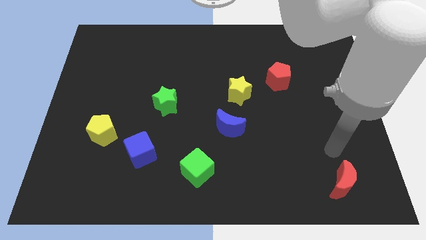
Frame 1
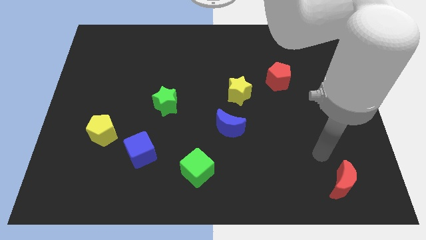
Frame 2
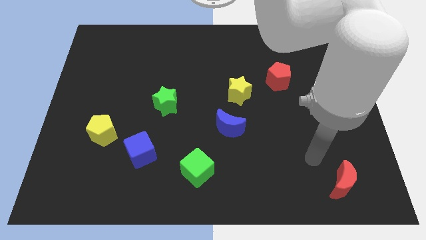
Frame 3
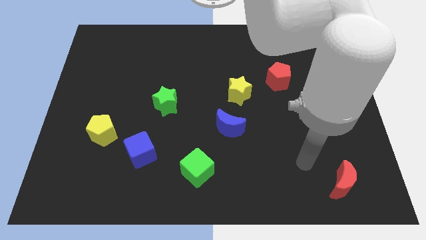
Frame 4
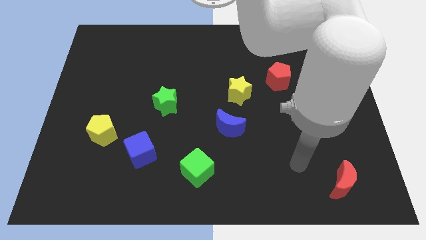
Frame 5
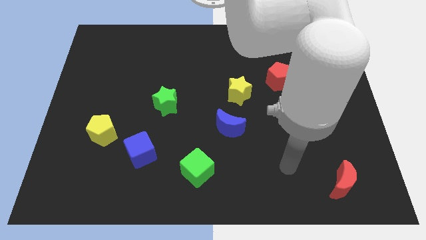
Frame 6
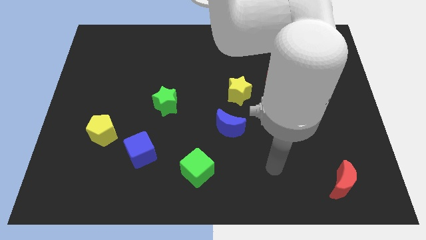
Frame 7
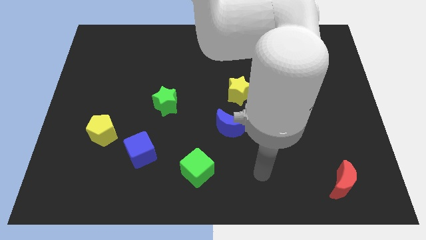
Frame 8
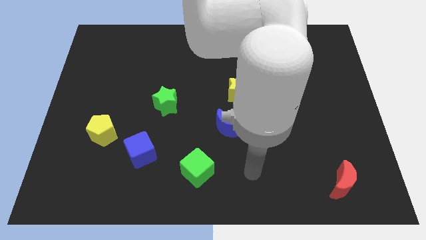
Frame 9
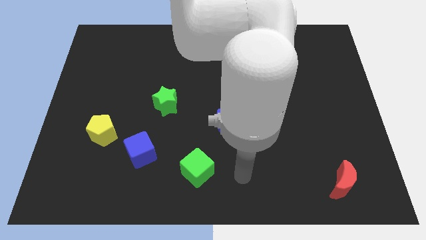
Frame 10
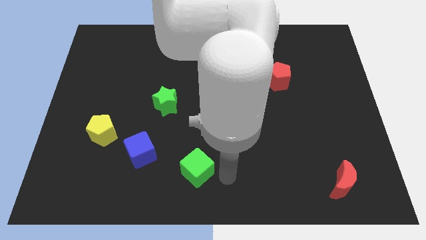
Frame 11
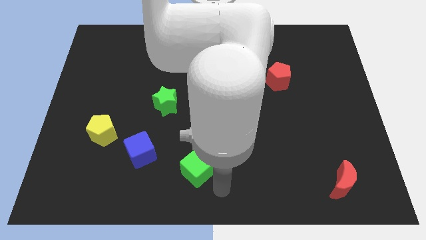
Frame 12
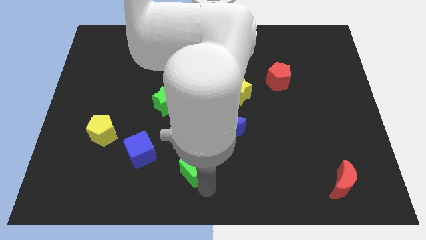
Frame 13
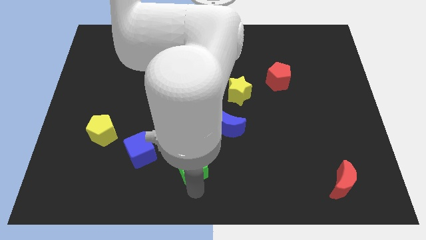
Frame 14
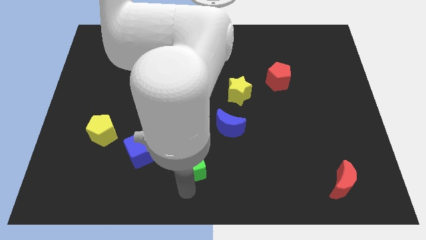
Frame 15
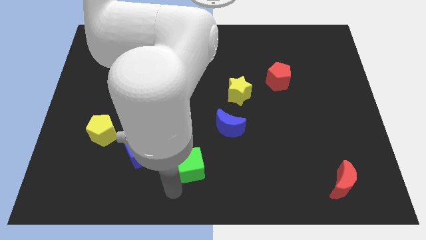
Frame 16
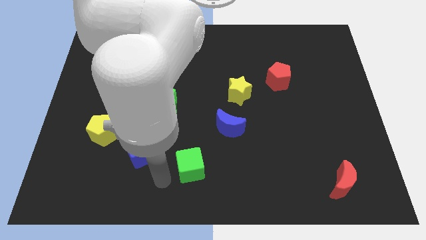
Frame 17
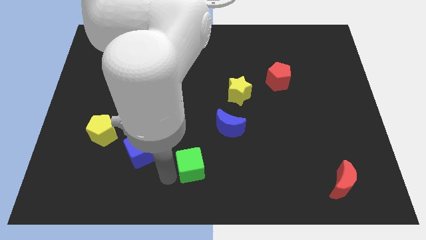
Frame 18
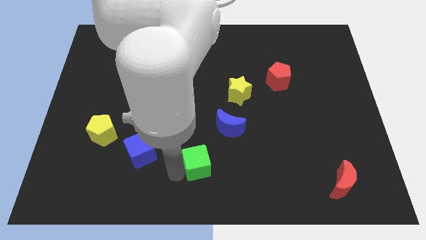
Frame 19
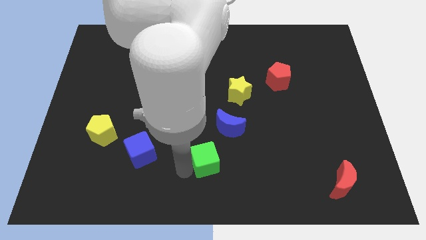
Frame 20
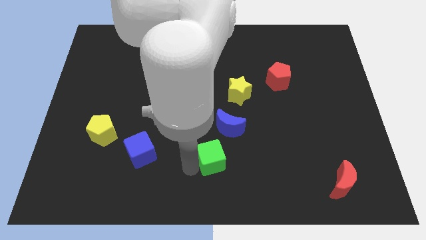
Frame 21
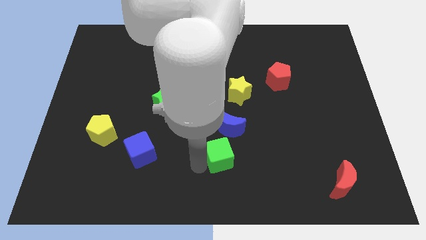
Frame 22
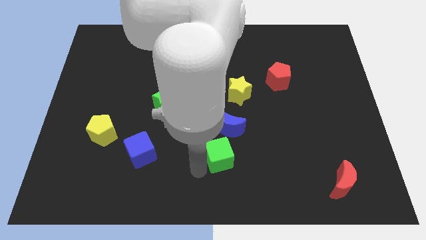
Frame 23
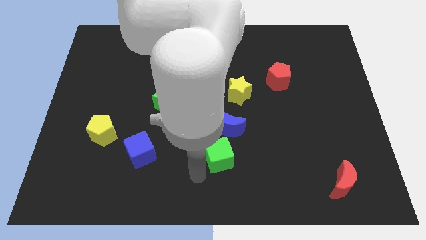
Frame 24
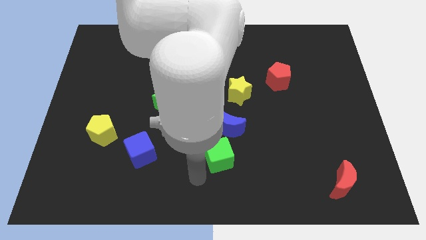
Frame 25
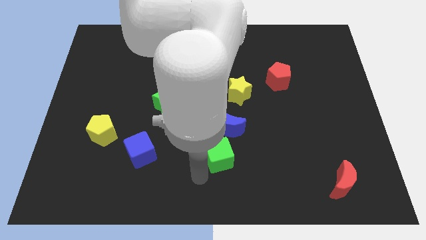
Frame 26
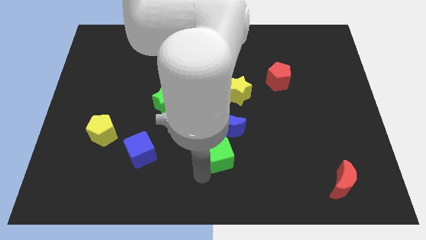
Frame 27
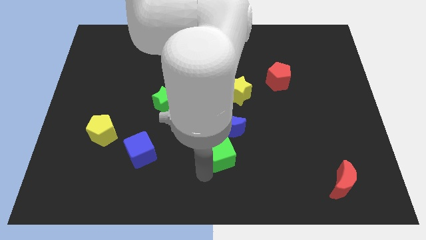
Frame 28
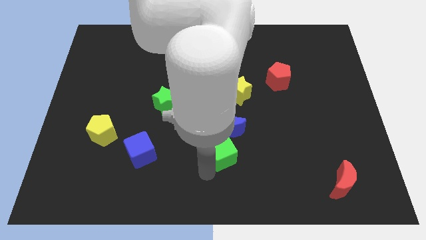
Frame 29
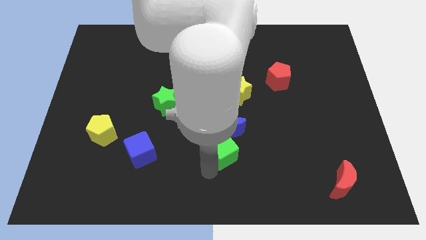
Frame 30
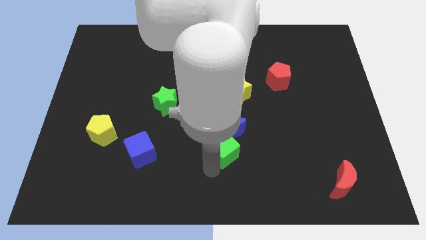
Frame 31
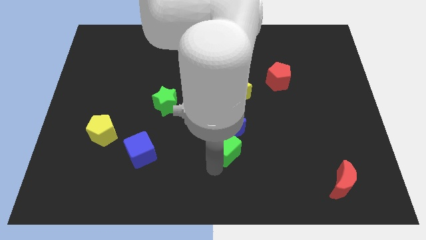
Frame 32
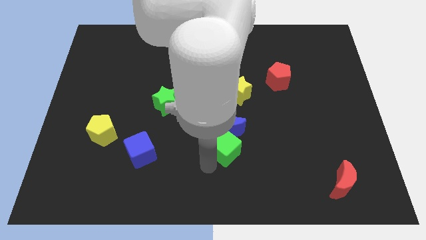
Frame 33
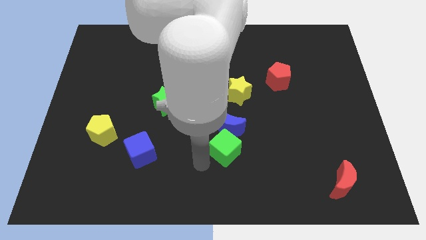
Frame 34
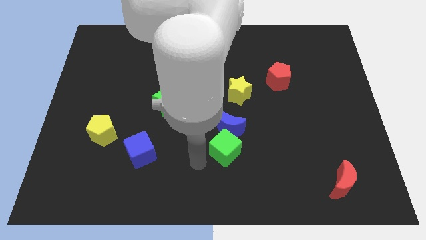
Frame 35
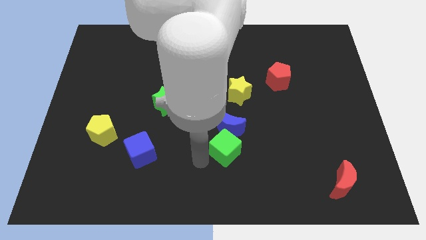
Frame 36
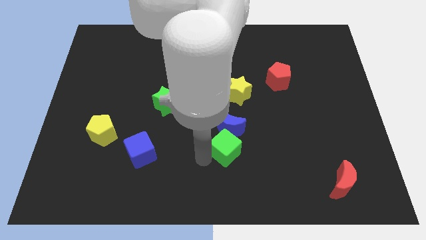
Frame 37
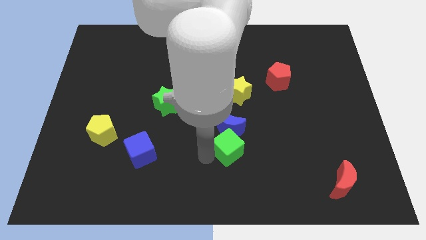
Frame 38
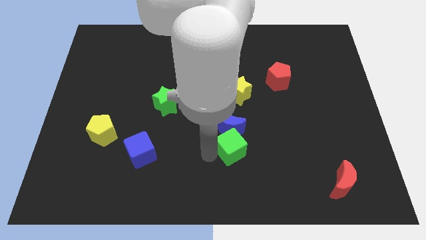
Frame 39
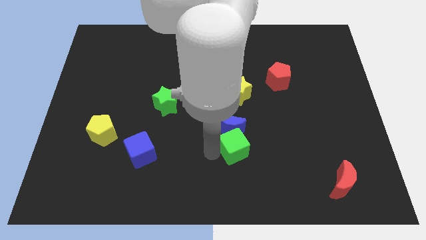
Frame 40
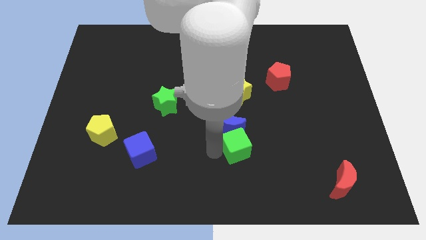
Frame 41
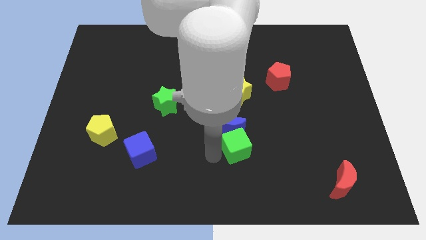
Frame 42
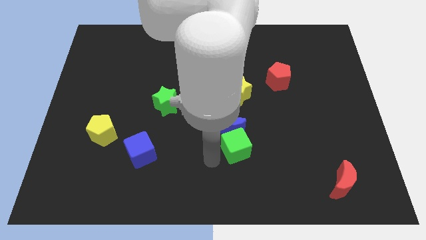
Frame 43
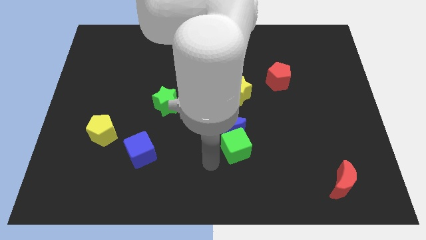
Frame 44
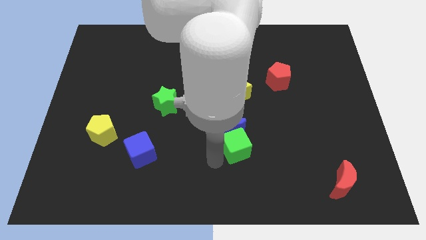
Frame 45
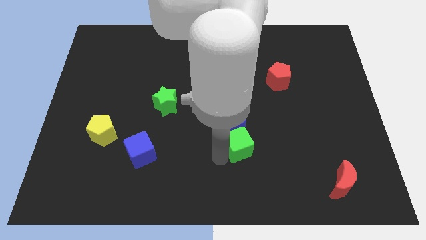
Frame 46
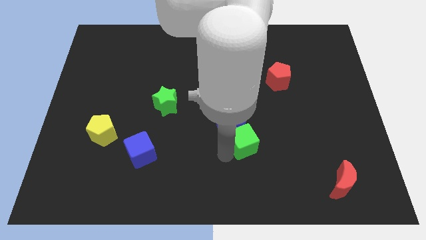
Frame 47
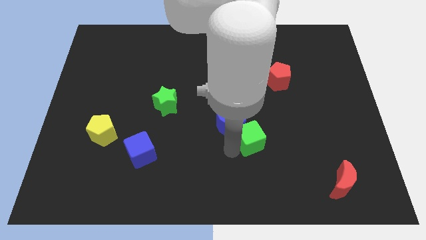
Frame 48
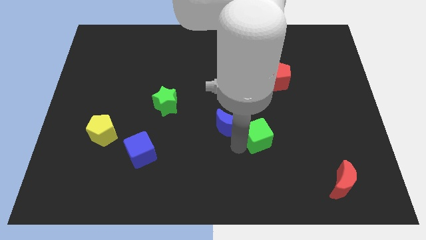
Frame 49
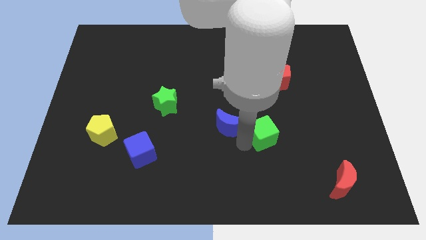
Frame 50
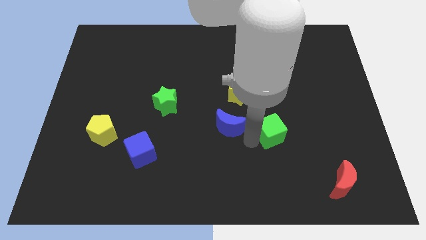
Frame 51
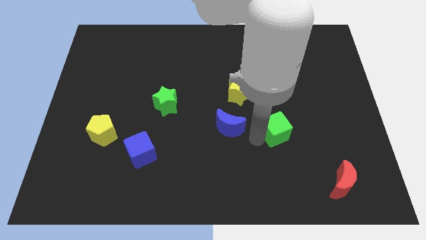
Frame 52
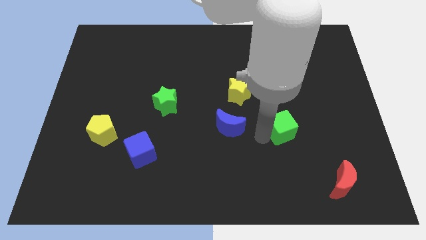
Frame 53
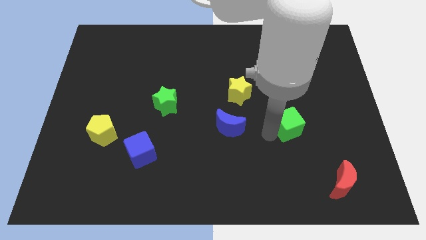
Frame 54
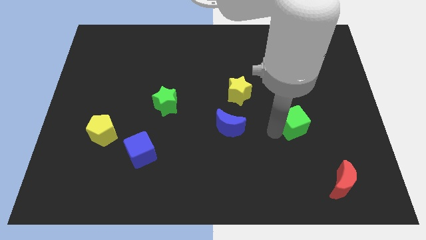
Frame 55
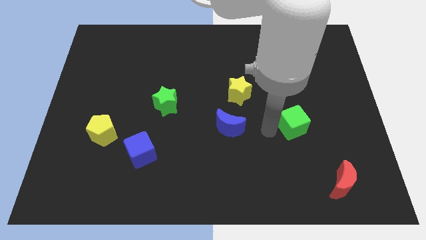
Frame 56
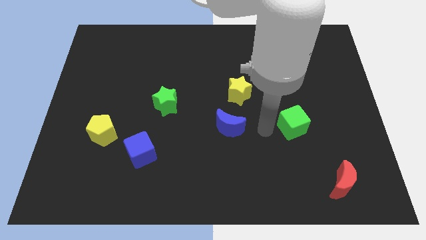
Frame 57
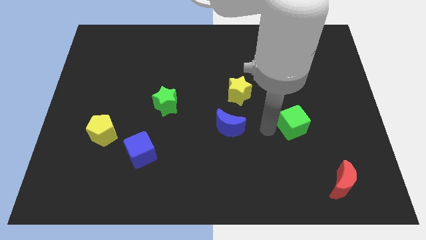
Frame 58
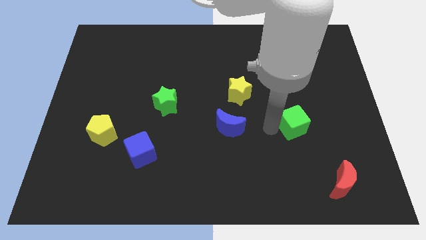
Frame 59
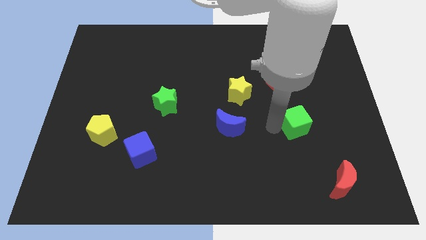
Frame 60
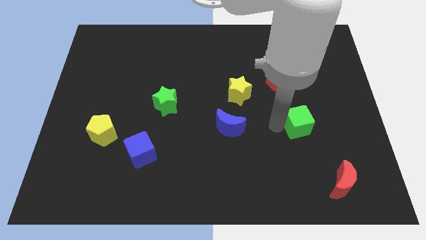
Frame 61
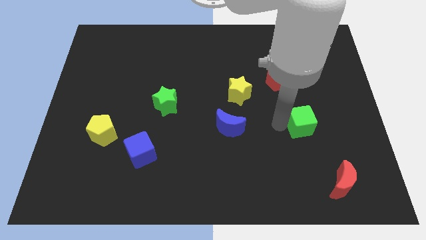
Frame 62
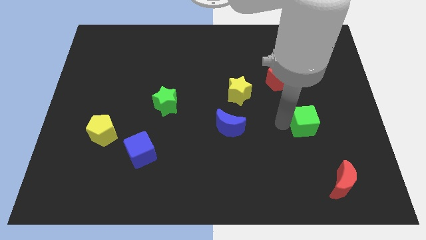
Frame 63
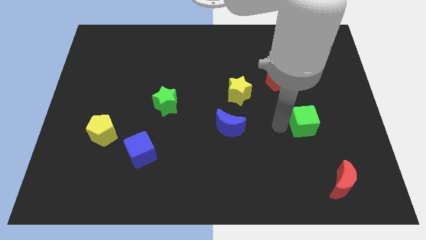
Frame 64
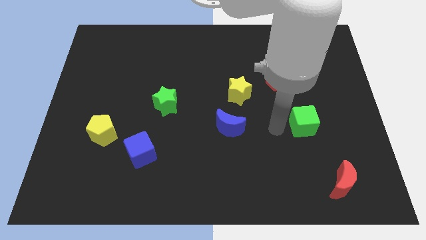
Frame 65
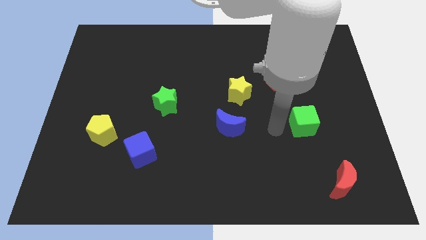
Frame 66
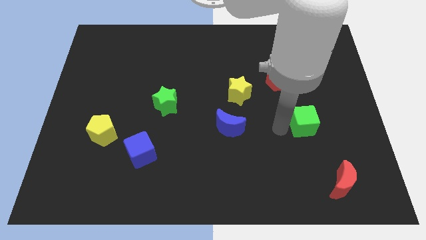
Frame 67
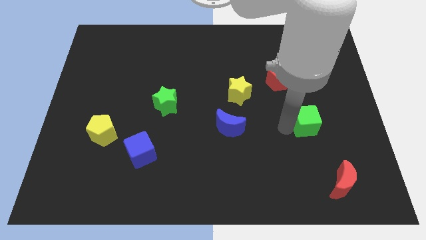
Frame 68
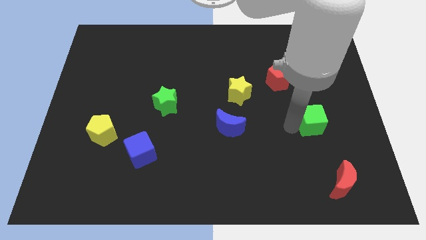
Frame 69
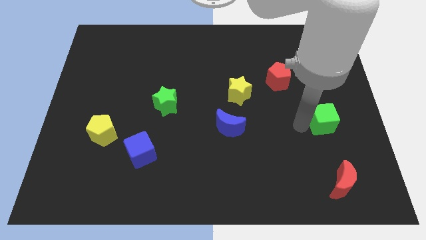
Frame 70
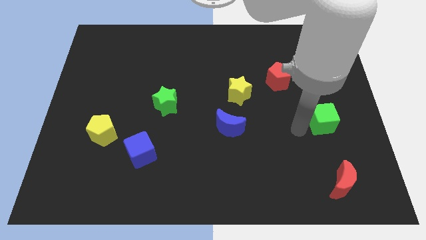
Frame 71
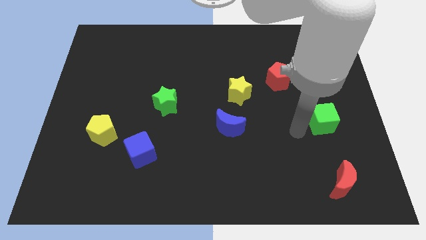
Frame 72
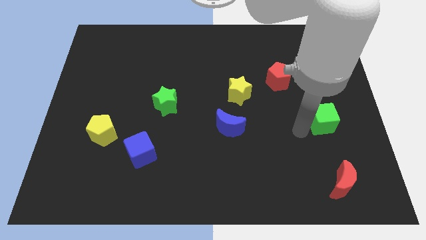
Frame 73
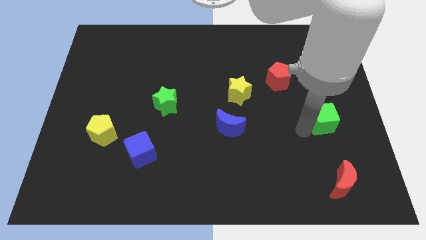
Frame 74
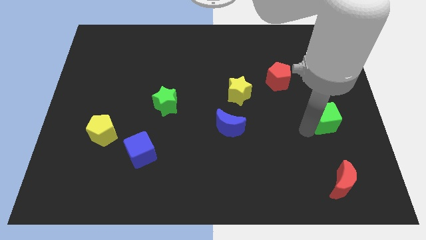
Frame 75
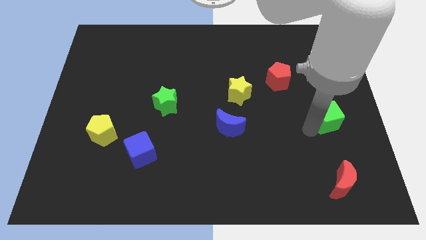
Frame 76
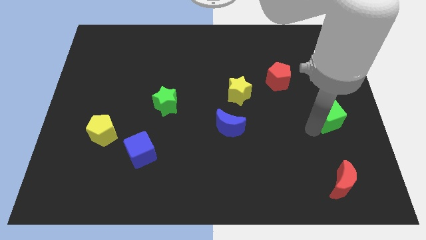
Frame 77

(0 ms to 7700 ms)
move the green cube to the center right

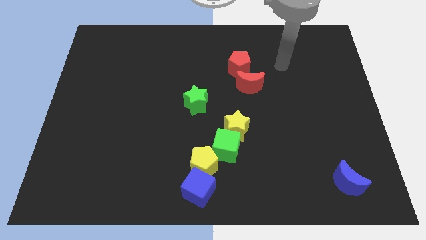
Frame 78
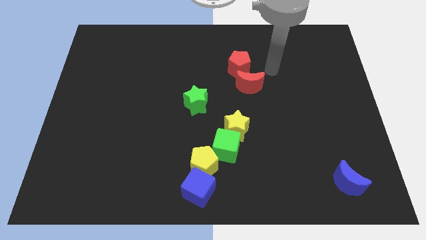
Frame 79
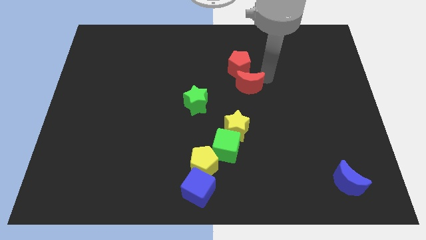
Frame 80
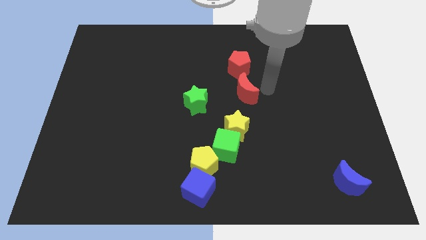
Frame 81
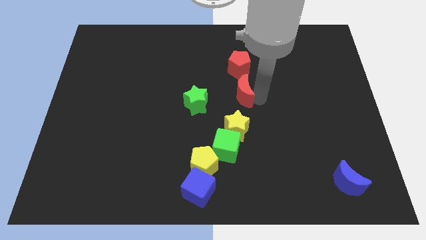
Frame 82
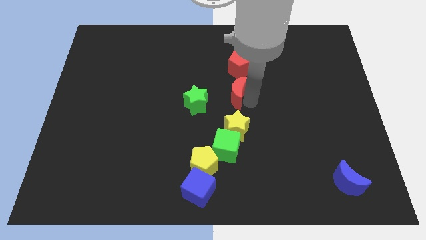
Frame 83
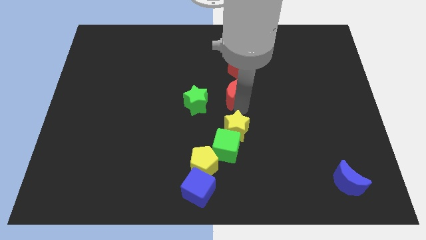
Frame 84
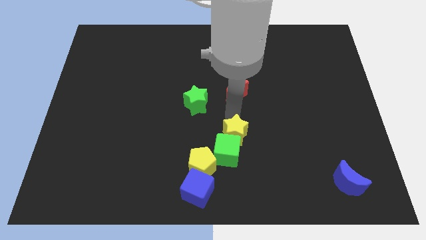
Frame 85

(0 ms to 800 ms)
put the green cube to the bottom side
